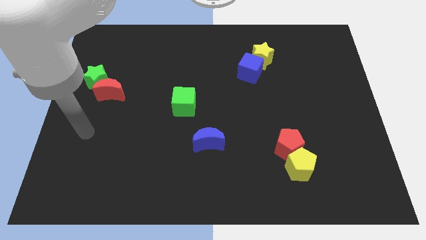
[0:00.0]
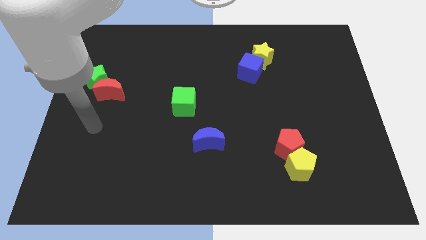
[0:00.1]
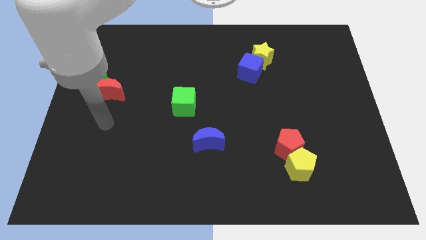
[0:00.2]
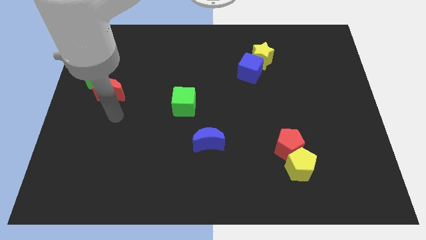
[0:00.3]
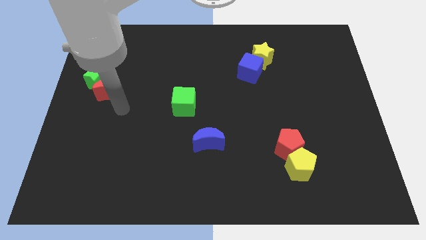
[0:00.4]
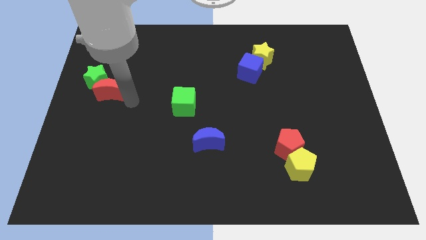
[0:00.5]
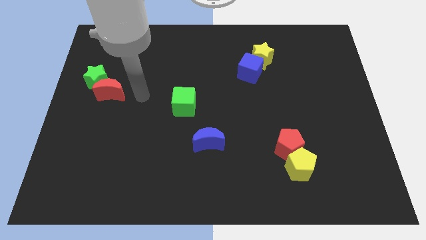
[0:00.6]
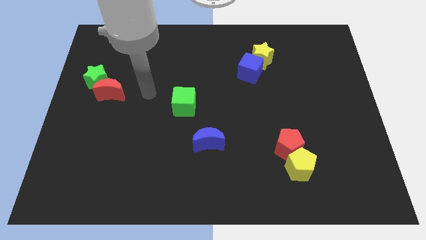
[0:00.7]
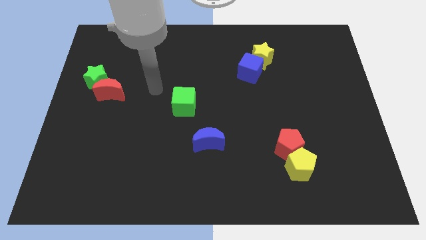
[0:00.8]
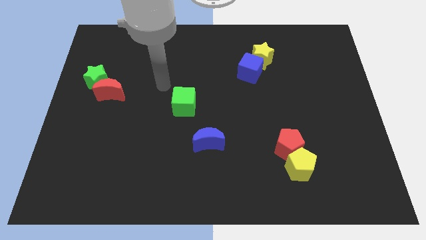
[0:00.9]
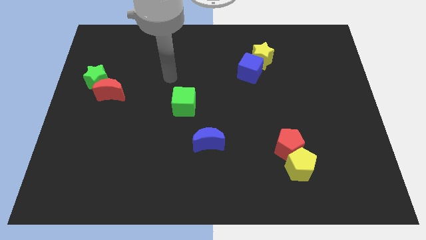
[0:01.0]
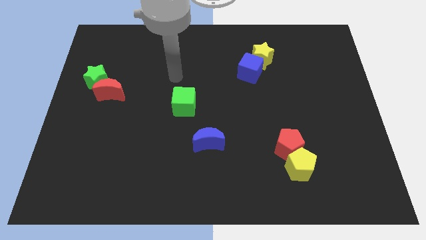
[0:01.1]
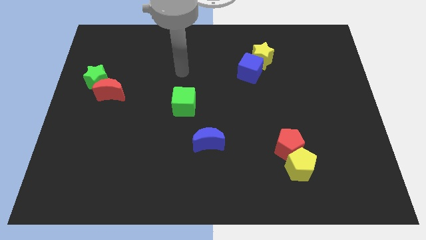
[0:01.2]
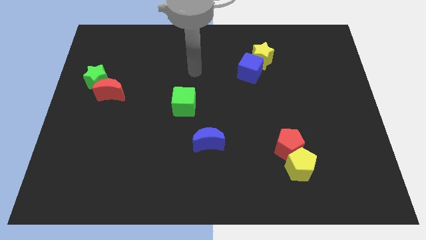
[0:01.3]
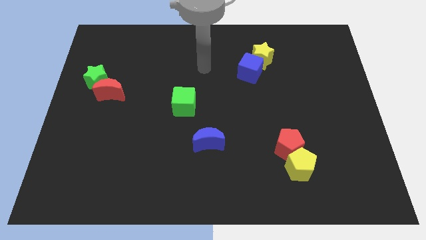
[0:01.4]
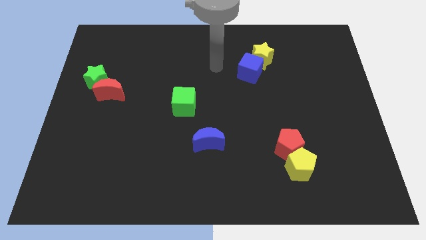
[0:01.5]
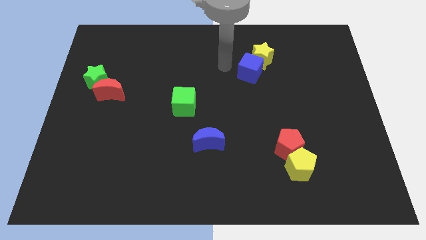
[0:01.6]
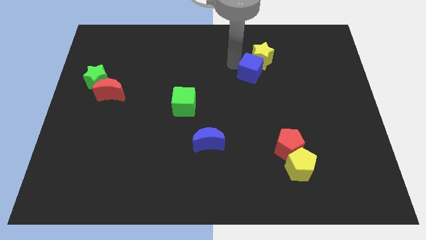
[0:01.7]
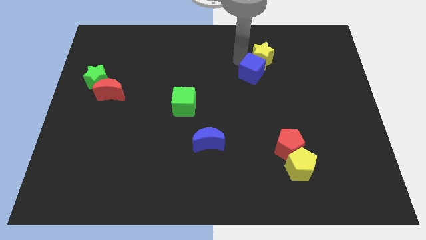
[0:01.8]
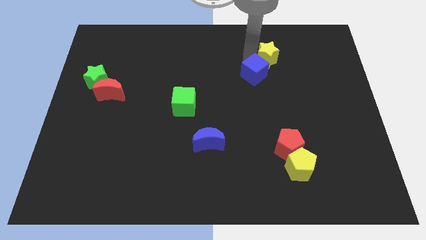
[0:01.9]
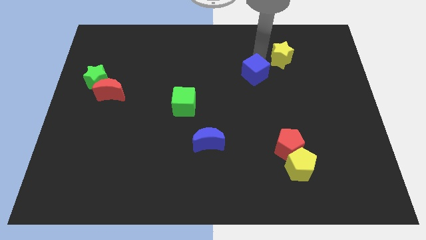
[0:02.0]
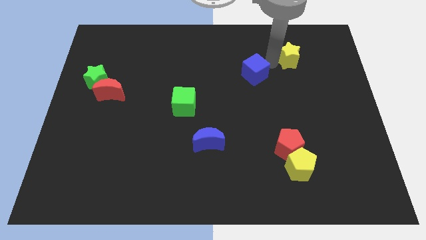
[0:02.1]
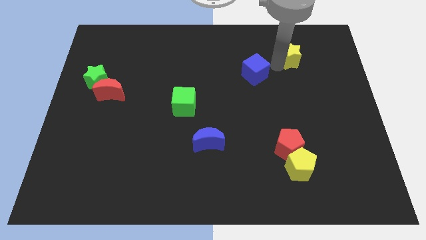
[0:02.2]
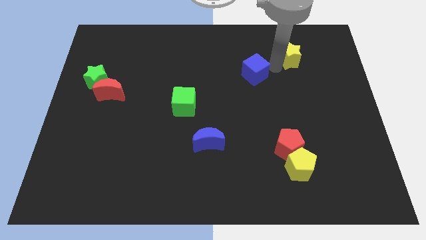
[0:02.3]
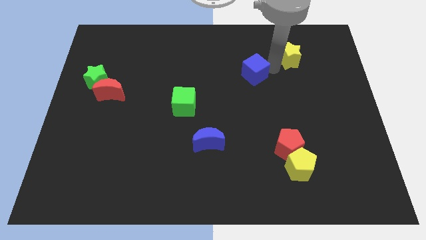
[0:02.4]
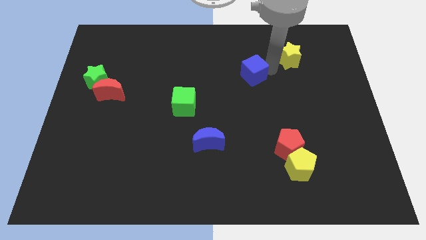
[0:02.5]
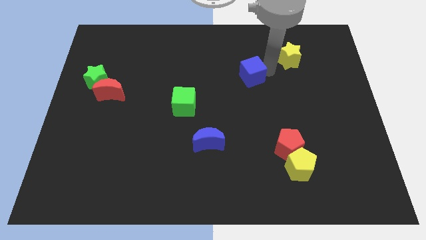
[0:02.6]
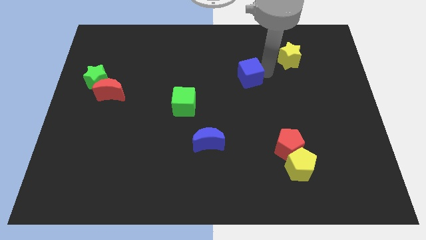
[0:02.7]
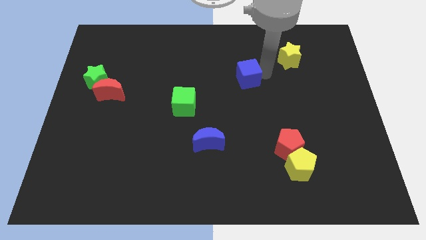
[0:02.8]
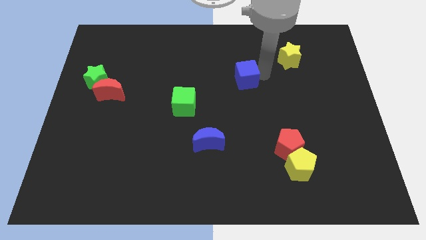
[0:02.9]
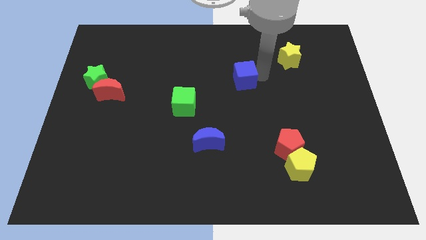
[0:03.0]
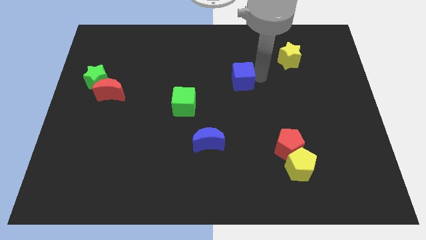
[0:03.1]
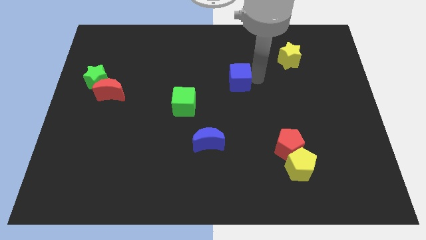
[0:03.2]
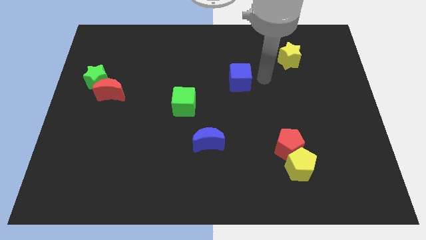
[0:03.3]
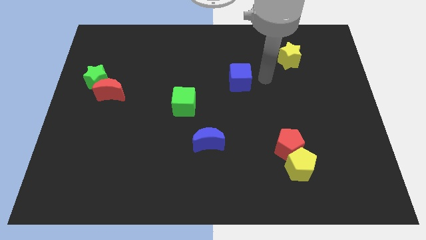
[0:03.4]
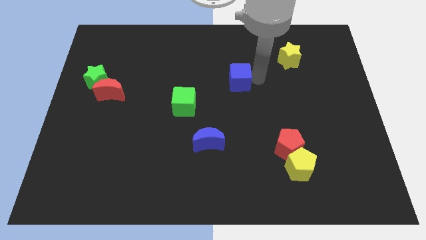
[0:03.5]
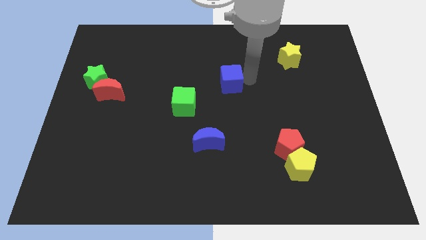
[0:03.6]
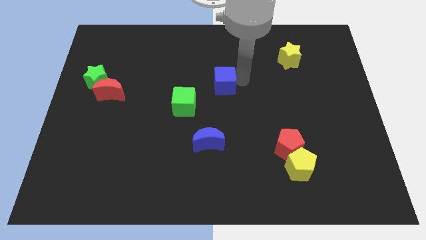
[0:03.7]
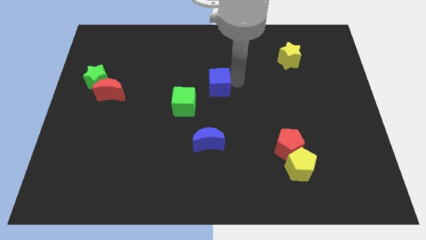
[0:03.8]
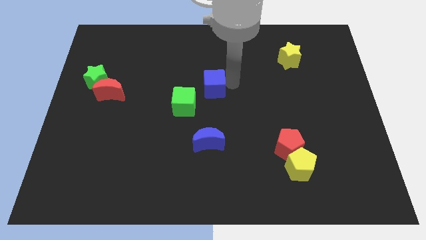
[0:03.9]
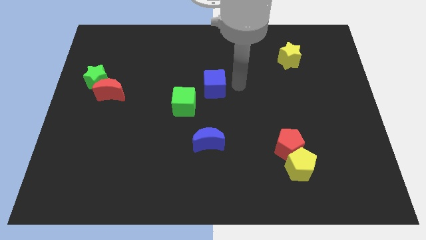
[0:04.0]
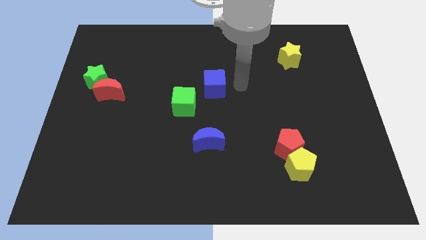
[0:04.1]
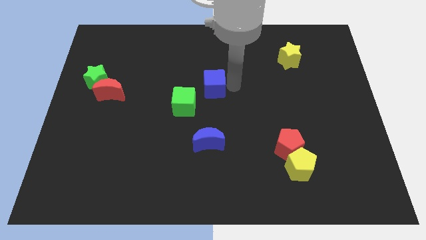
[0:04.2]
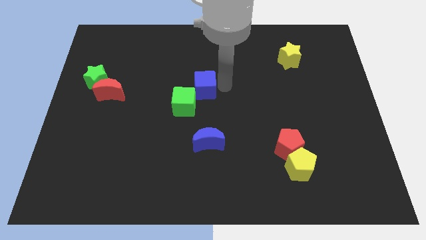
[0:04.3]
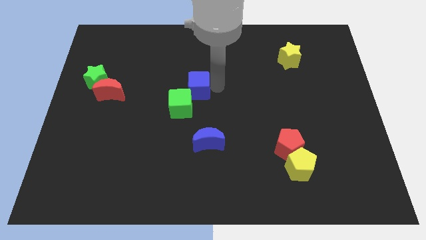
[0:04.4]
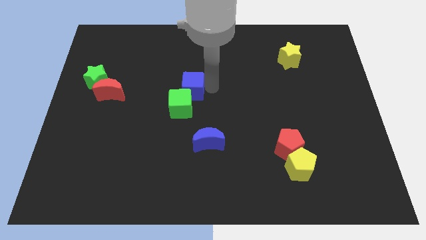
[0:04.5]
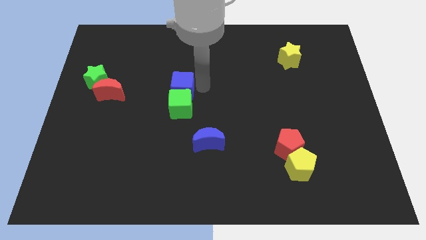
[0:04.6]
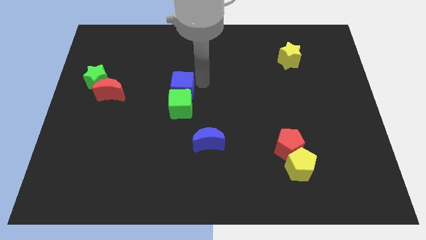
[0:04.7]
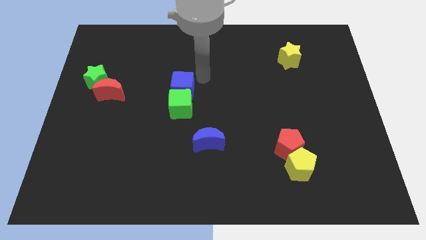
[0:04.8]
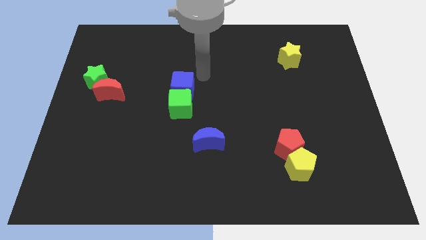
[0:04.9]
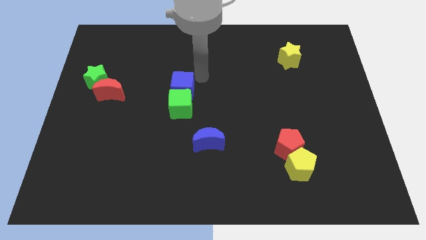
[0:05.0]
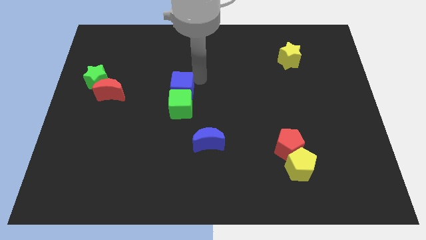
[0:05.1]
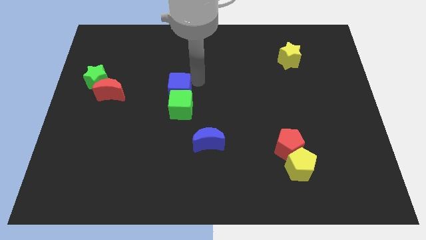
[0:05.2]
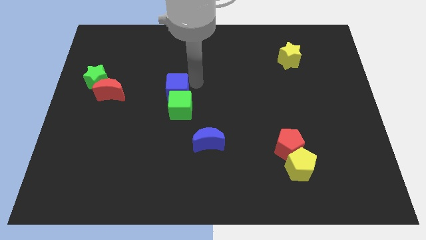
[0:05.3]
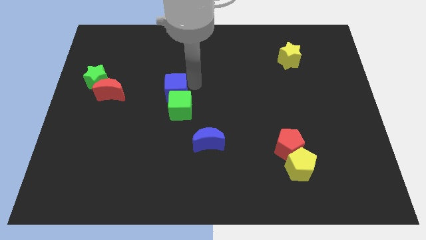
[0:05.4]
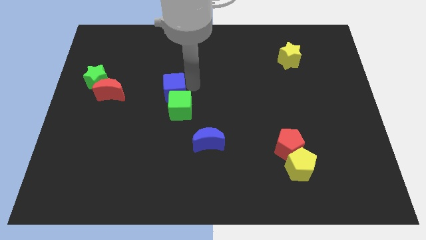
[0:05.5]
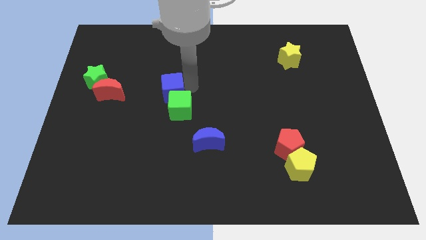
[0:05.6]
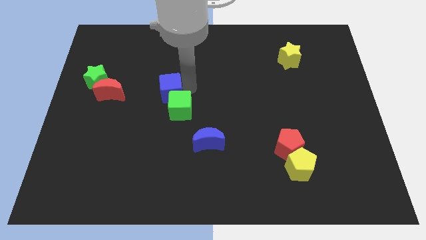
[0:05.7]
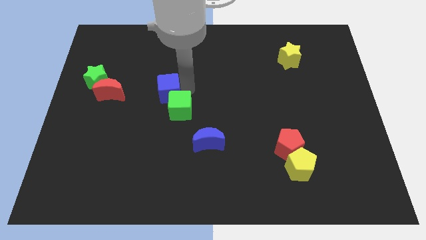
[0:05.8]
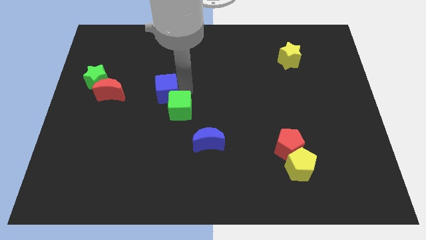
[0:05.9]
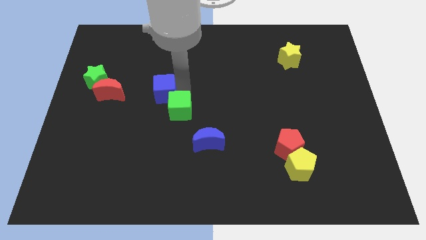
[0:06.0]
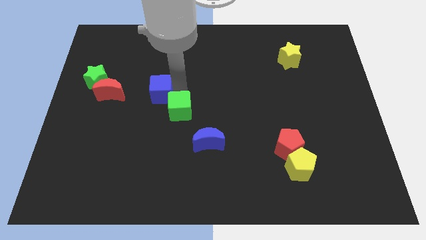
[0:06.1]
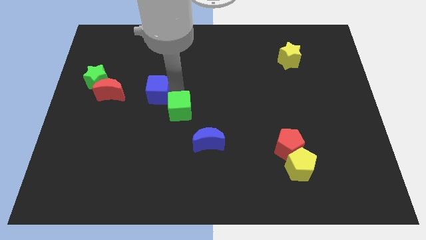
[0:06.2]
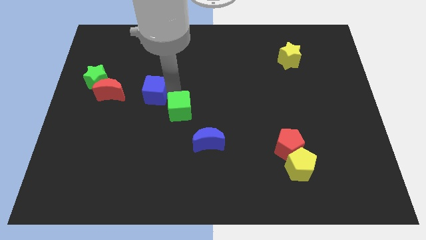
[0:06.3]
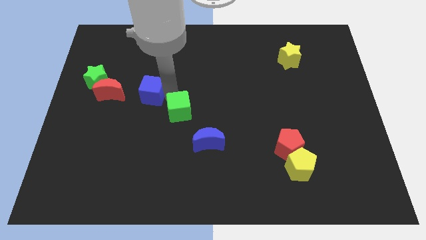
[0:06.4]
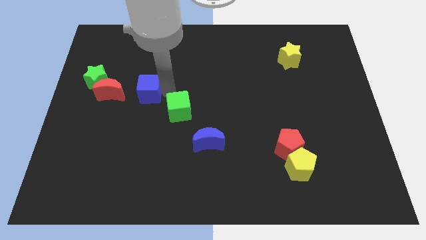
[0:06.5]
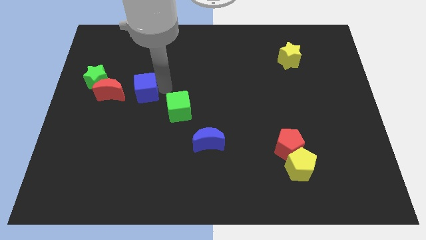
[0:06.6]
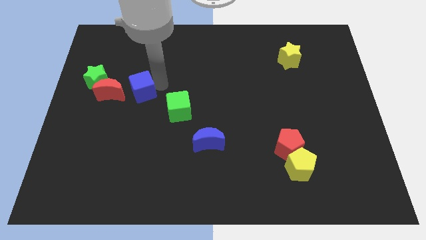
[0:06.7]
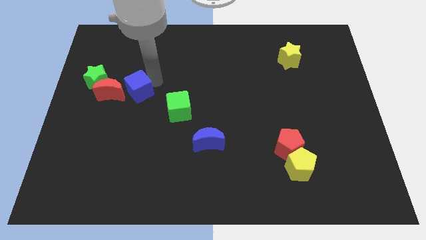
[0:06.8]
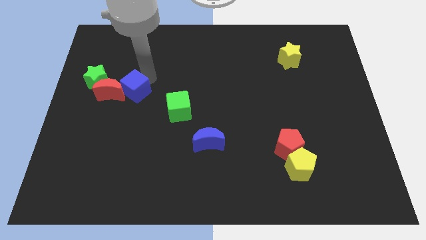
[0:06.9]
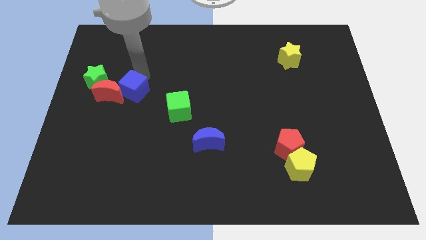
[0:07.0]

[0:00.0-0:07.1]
move the blue cube diagonally down and to the right of the green star

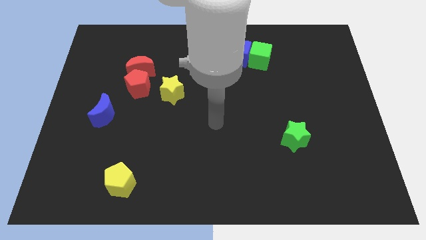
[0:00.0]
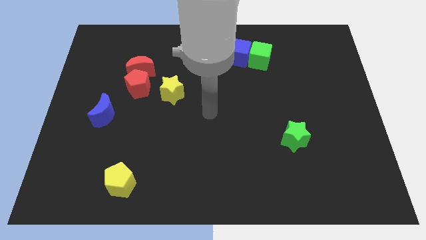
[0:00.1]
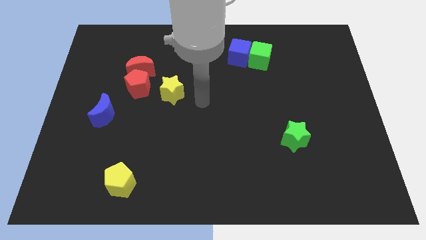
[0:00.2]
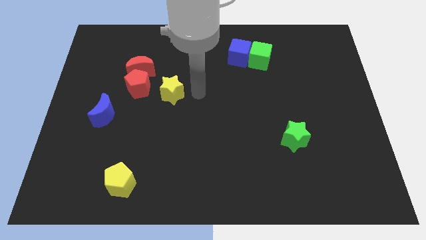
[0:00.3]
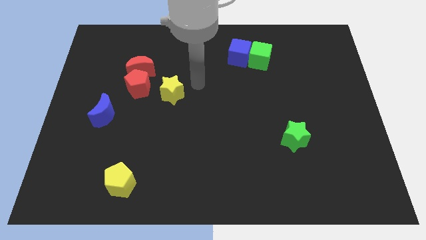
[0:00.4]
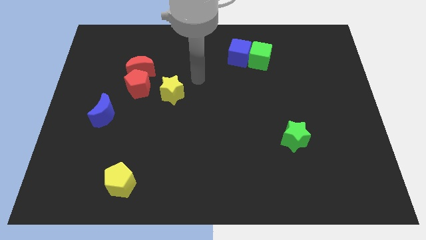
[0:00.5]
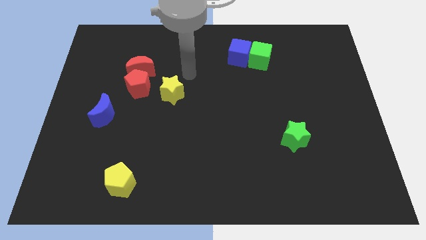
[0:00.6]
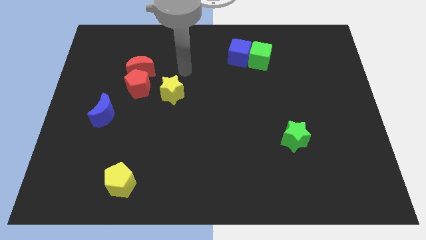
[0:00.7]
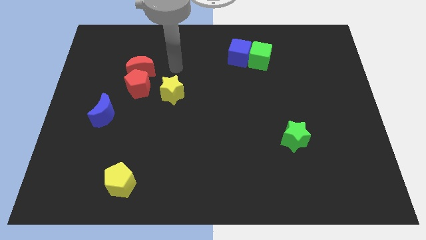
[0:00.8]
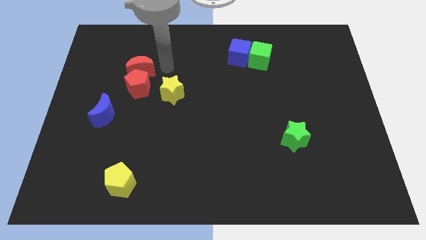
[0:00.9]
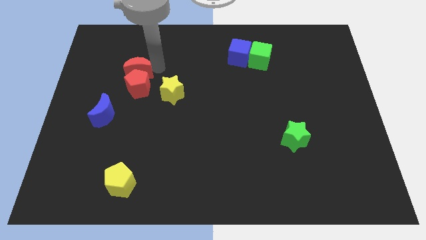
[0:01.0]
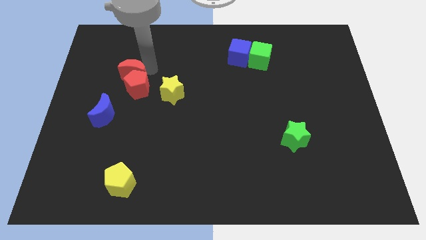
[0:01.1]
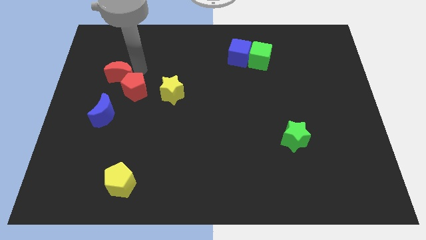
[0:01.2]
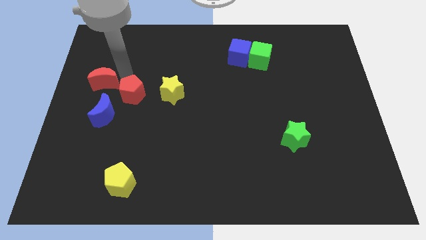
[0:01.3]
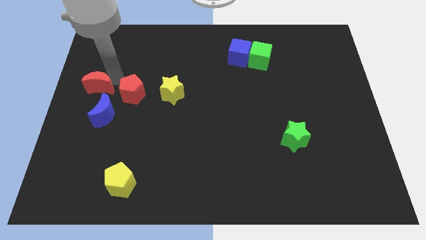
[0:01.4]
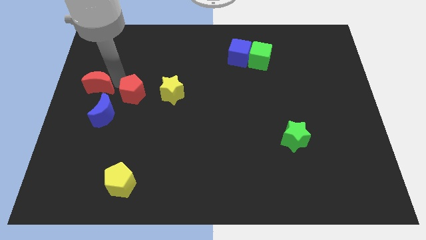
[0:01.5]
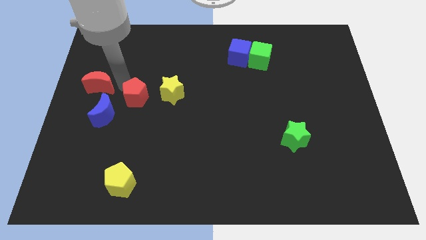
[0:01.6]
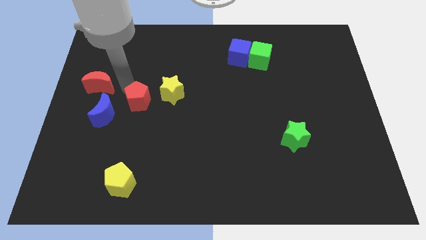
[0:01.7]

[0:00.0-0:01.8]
push the red pentagon just right of the blue moon
